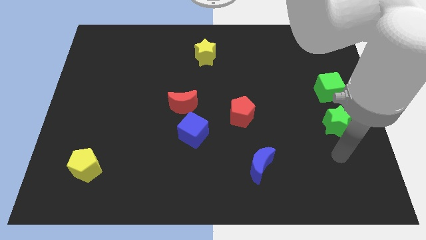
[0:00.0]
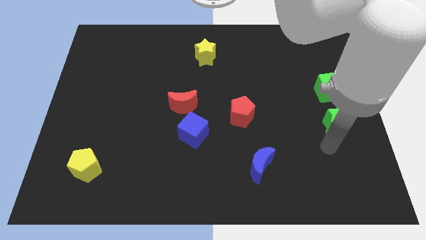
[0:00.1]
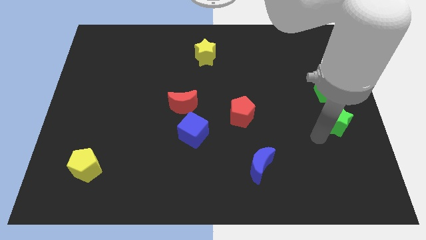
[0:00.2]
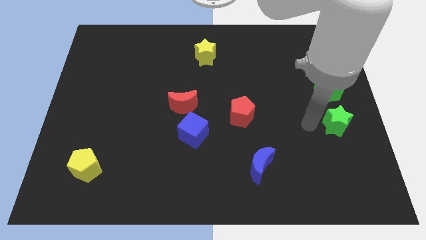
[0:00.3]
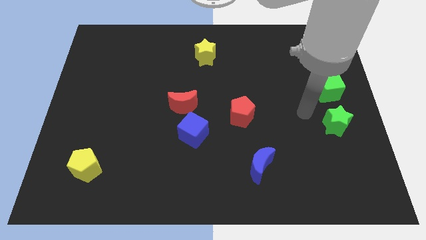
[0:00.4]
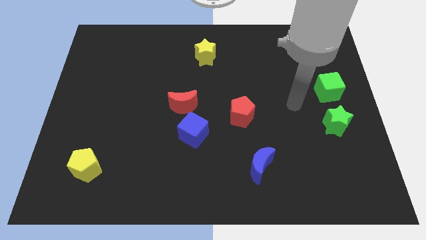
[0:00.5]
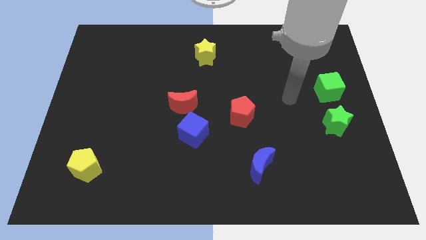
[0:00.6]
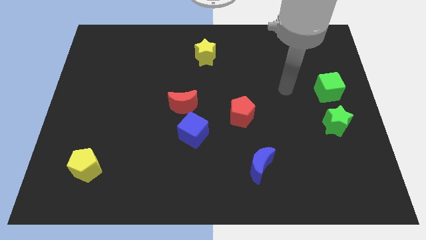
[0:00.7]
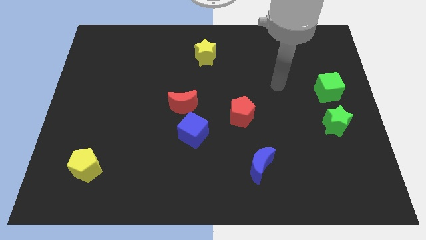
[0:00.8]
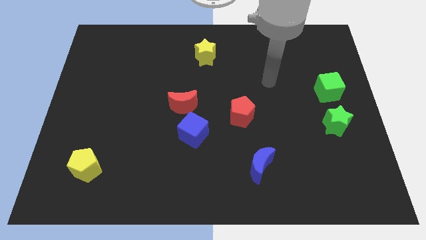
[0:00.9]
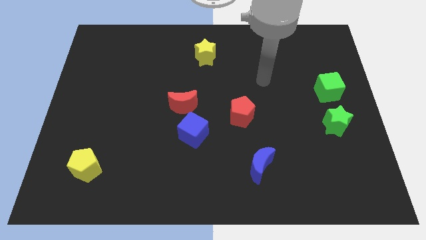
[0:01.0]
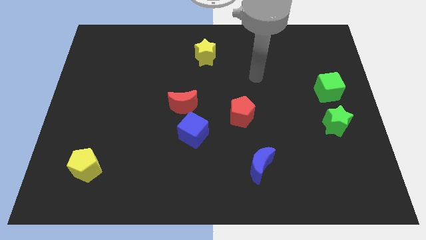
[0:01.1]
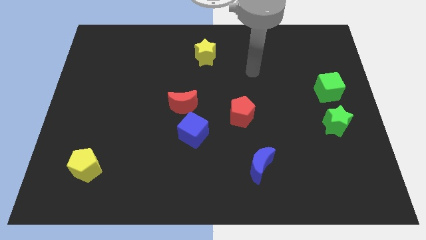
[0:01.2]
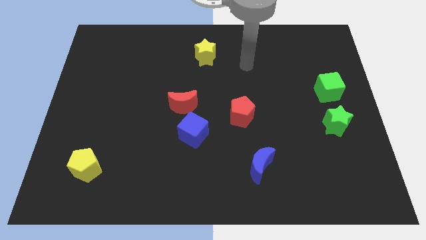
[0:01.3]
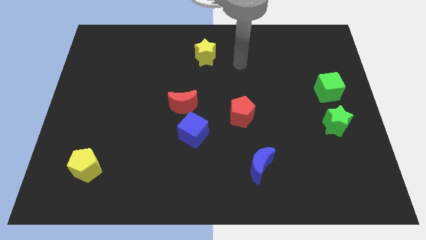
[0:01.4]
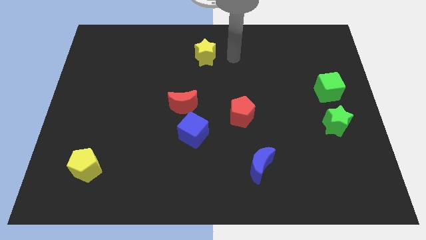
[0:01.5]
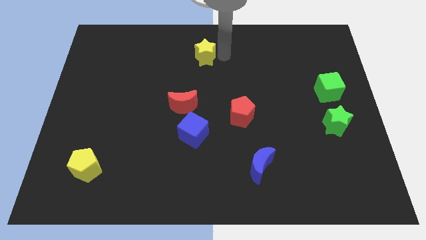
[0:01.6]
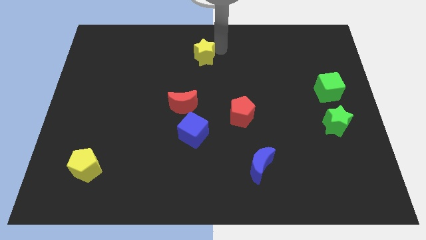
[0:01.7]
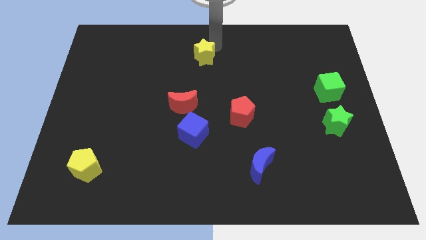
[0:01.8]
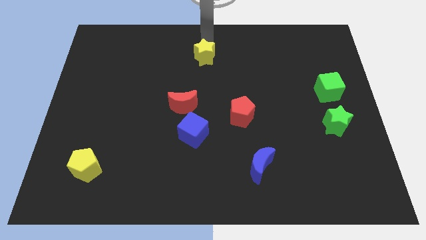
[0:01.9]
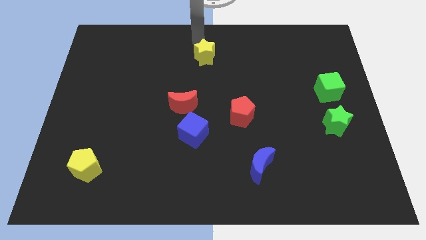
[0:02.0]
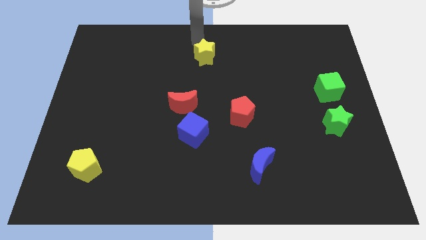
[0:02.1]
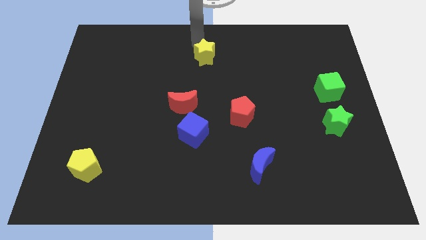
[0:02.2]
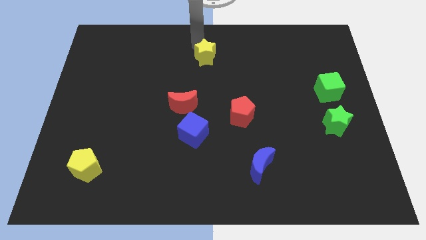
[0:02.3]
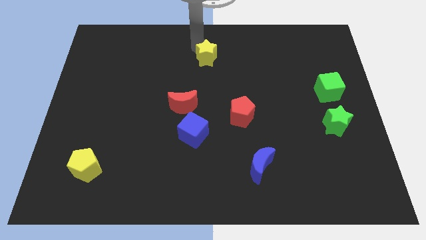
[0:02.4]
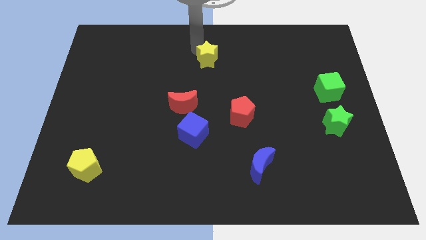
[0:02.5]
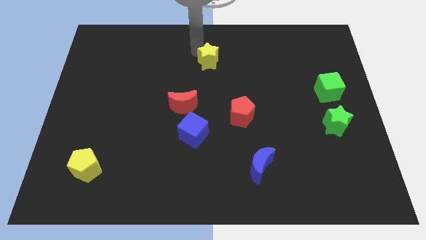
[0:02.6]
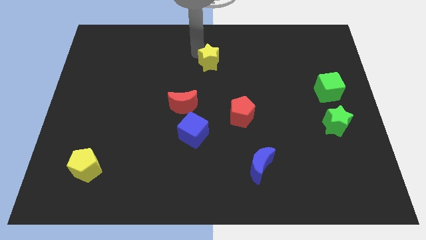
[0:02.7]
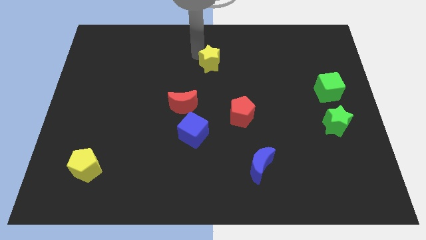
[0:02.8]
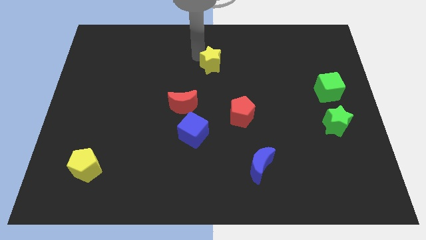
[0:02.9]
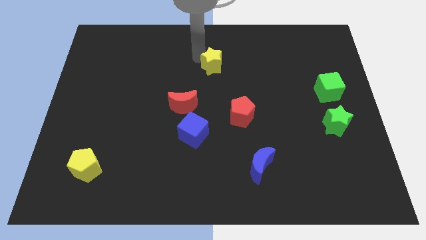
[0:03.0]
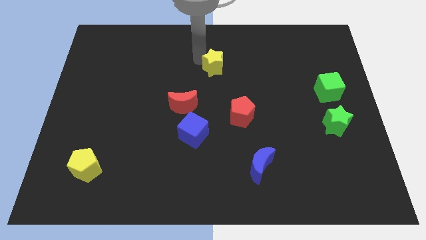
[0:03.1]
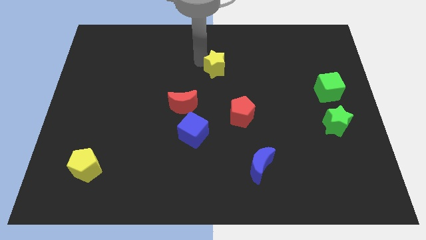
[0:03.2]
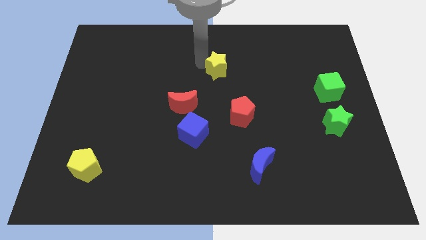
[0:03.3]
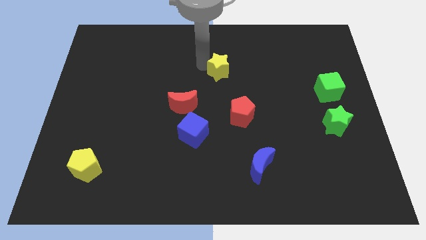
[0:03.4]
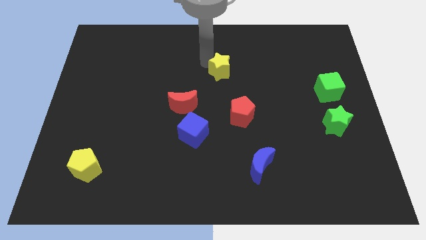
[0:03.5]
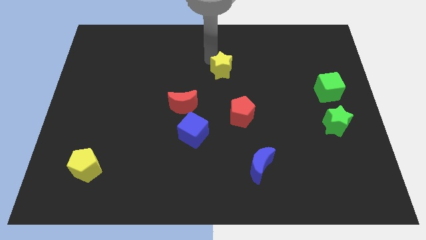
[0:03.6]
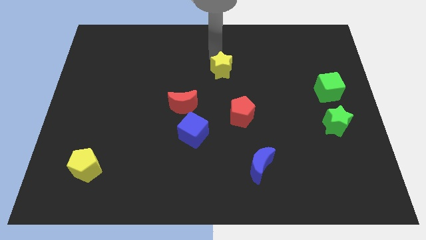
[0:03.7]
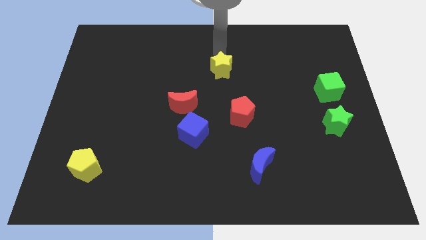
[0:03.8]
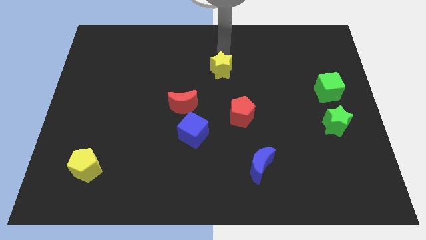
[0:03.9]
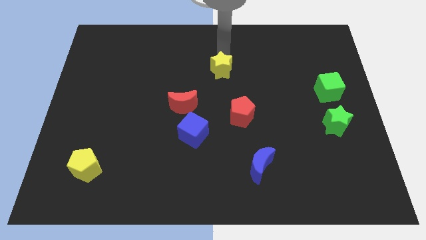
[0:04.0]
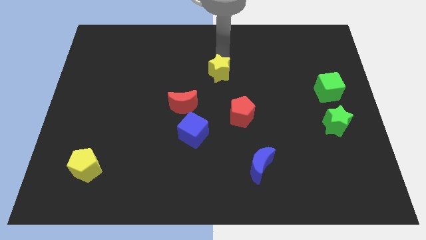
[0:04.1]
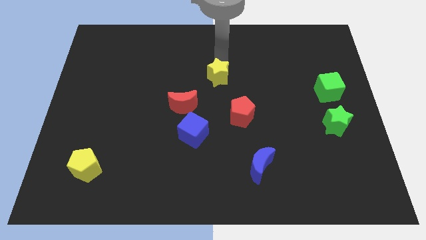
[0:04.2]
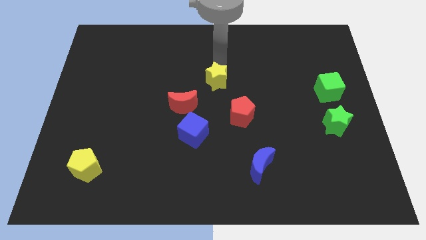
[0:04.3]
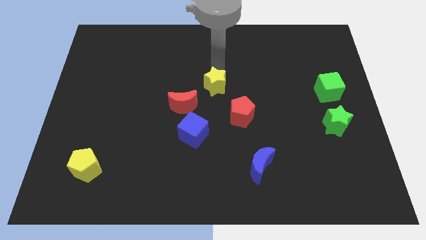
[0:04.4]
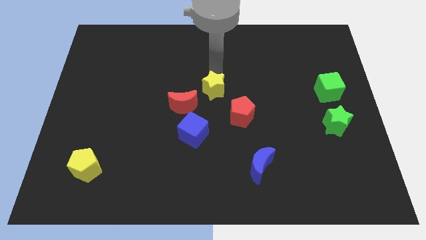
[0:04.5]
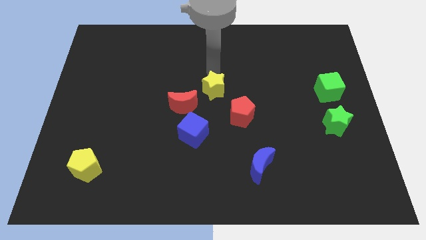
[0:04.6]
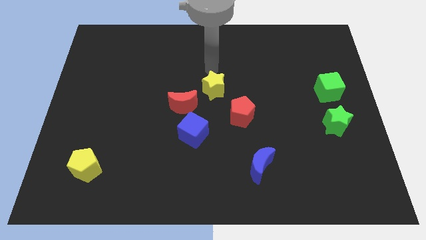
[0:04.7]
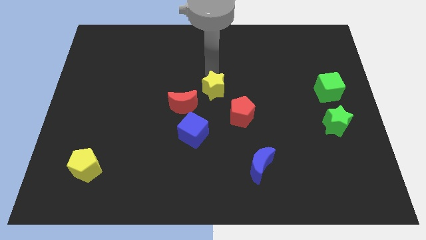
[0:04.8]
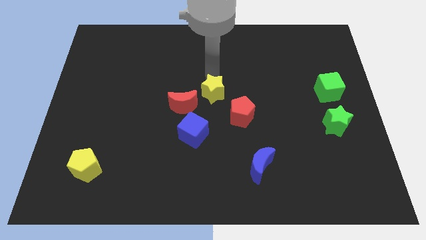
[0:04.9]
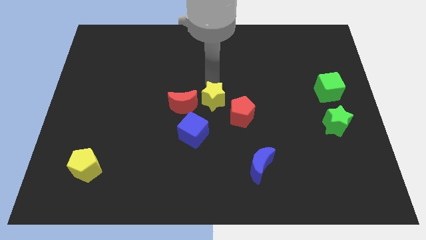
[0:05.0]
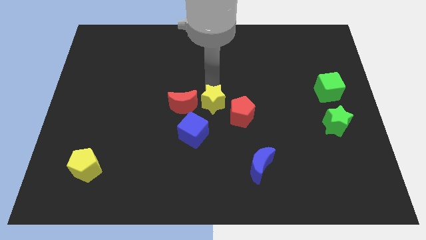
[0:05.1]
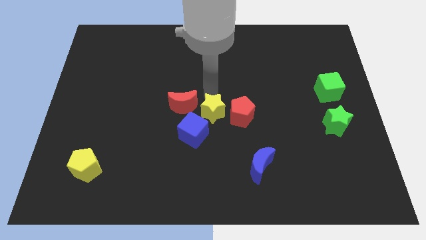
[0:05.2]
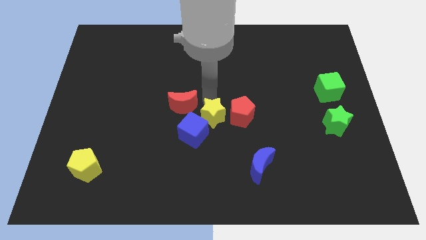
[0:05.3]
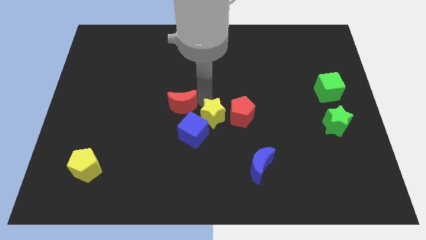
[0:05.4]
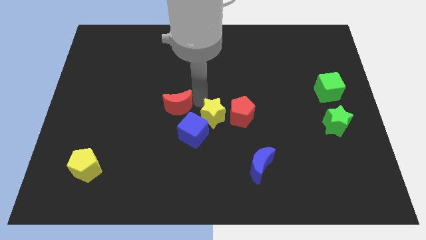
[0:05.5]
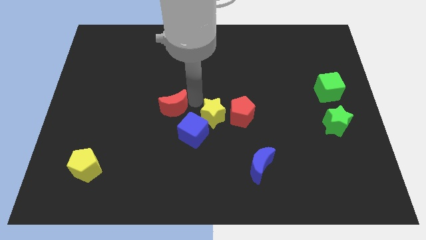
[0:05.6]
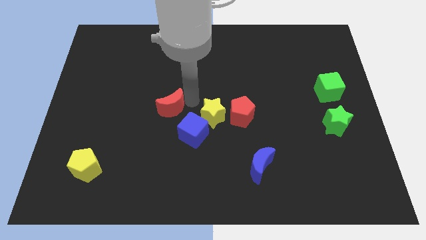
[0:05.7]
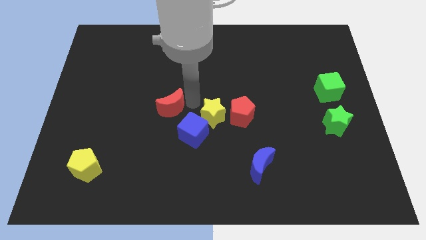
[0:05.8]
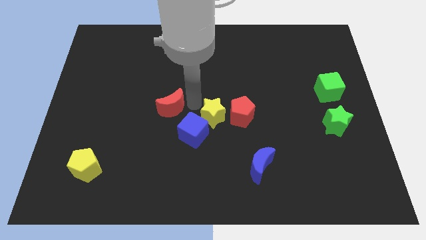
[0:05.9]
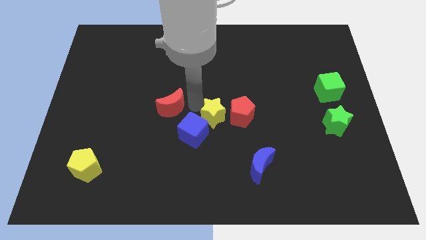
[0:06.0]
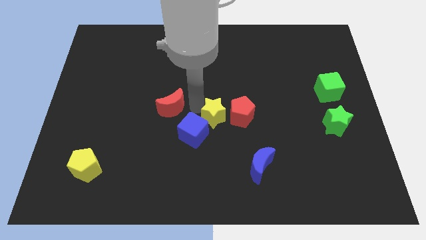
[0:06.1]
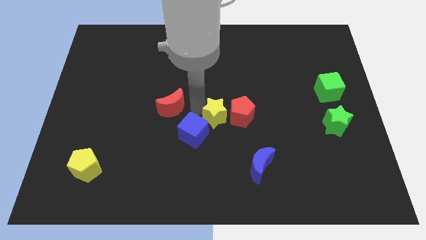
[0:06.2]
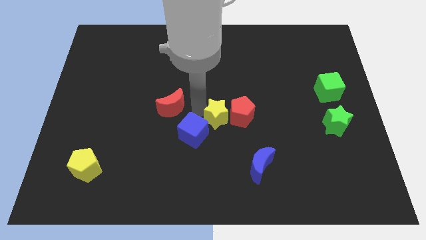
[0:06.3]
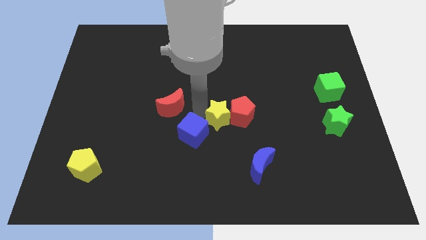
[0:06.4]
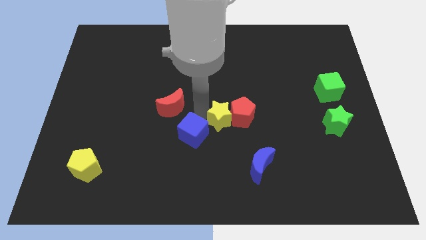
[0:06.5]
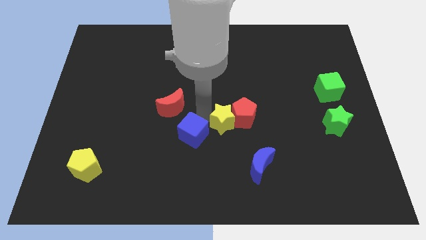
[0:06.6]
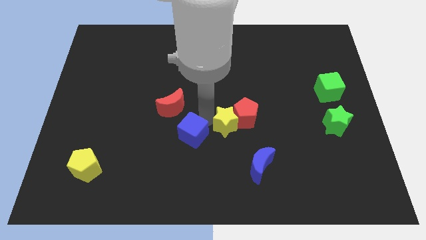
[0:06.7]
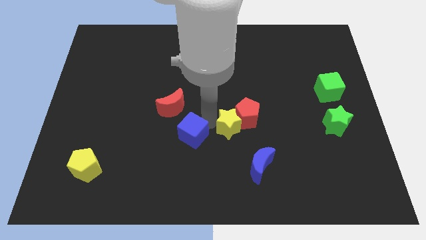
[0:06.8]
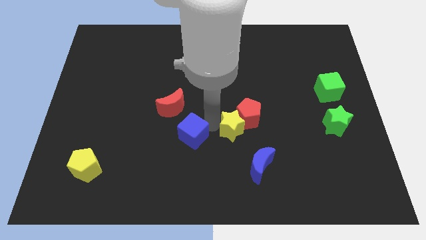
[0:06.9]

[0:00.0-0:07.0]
push the yellow star to the bottom side of the red pentagon
